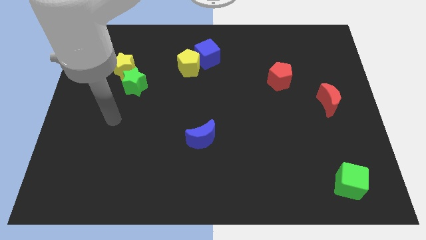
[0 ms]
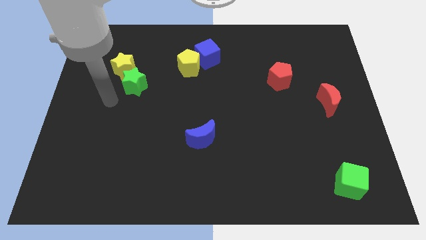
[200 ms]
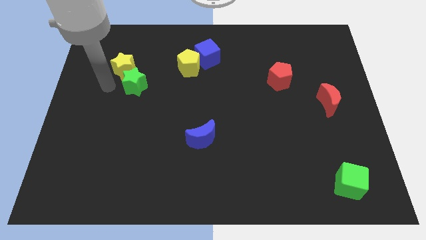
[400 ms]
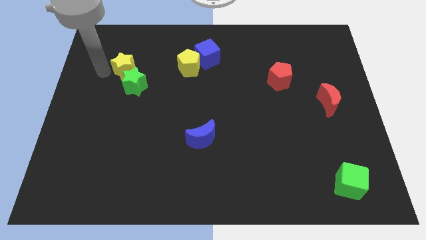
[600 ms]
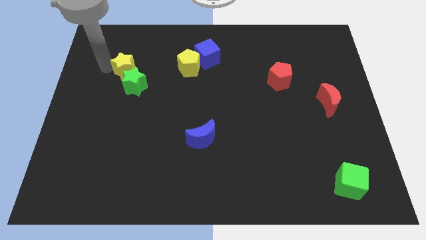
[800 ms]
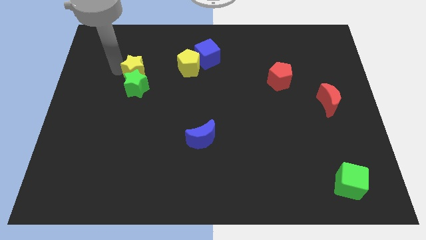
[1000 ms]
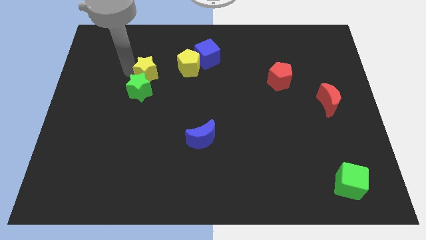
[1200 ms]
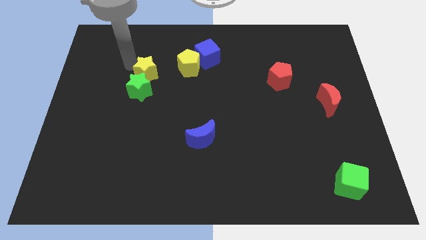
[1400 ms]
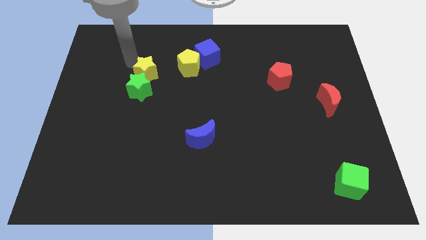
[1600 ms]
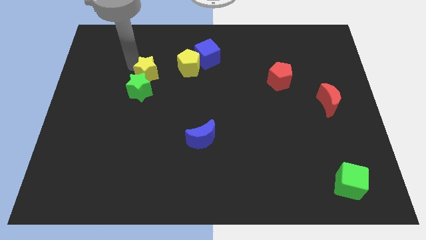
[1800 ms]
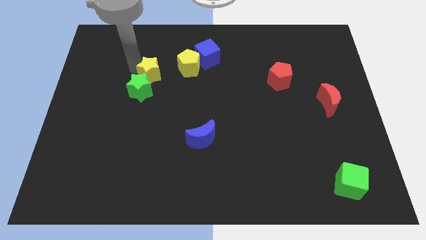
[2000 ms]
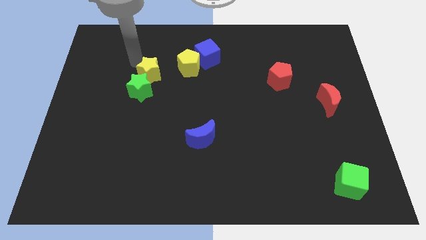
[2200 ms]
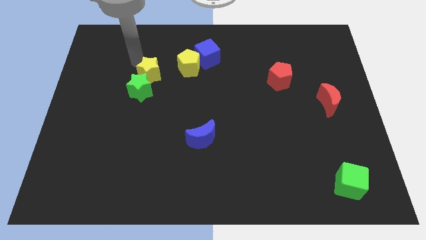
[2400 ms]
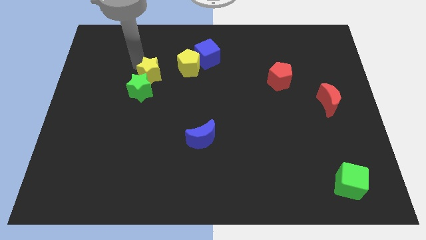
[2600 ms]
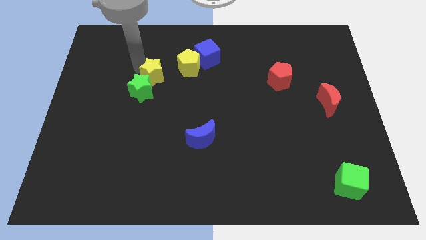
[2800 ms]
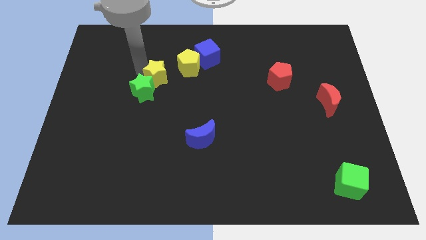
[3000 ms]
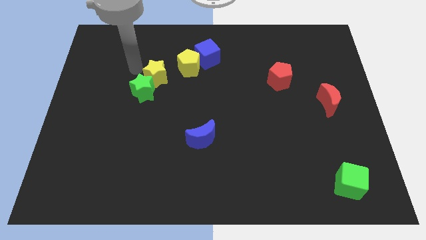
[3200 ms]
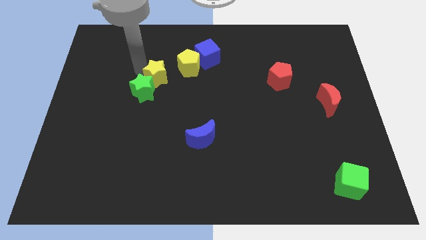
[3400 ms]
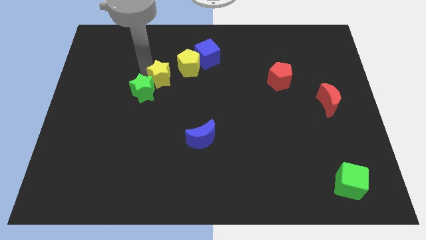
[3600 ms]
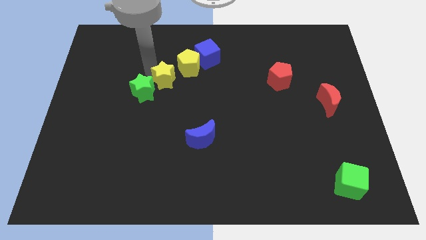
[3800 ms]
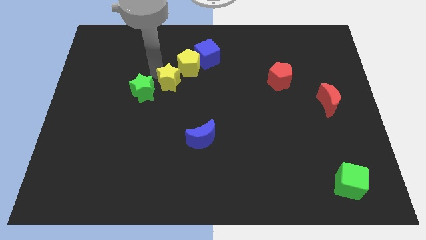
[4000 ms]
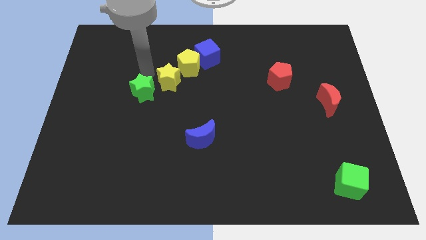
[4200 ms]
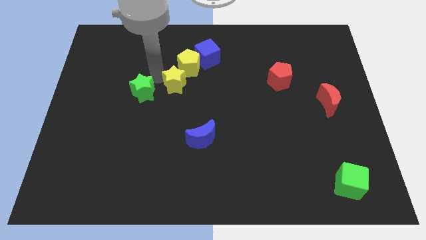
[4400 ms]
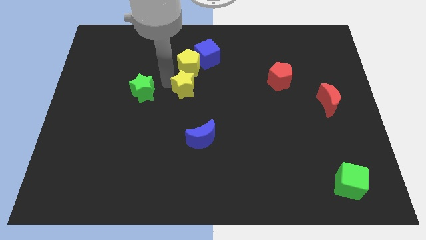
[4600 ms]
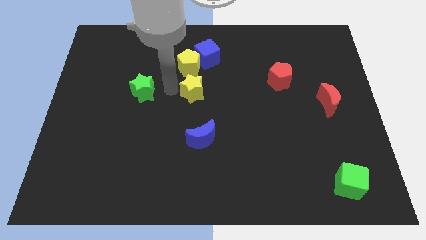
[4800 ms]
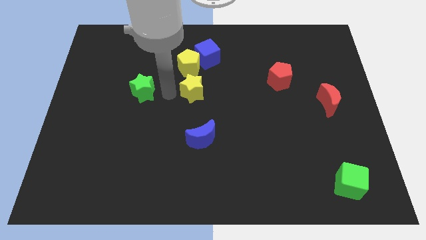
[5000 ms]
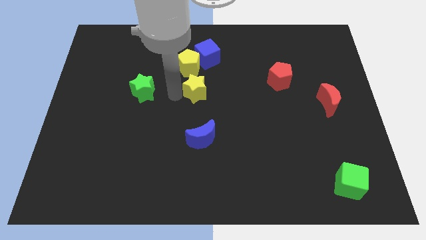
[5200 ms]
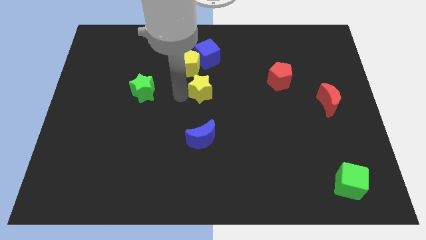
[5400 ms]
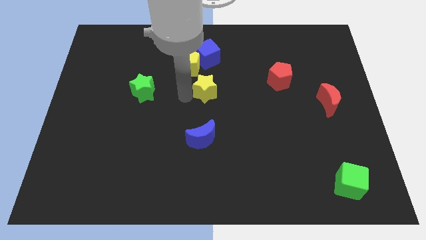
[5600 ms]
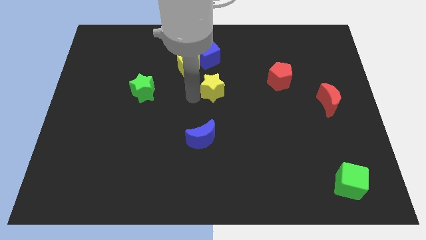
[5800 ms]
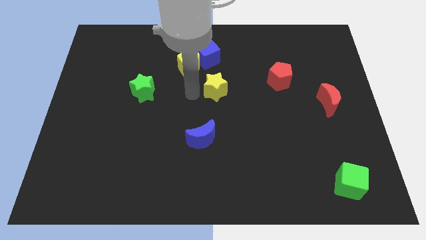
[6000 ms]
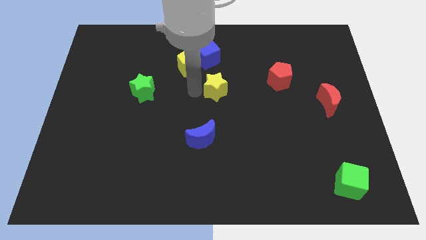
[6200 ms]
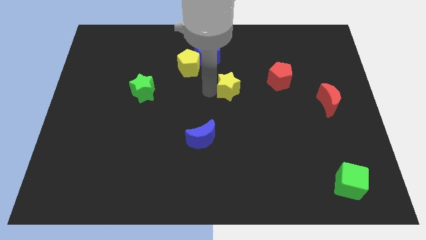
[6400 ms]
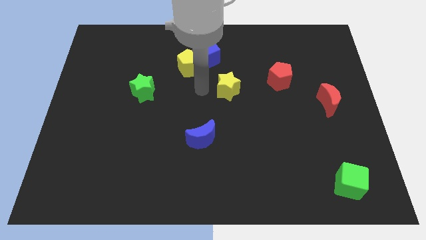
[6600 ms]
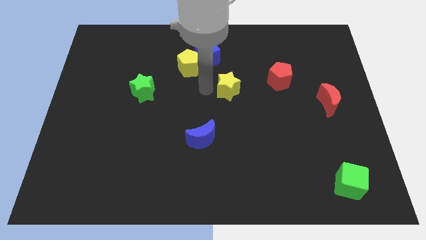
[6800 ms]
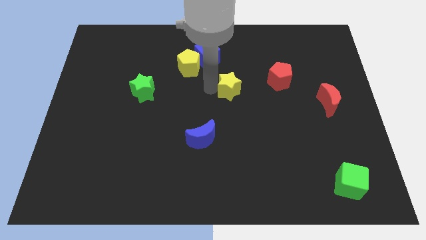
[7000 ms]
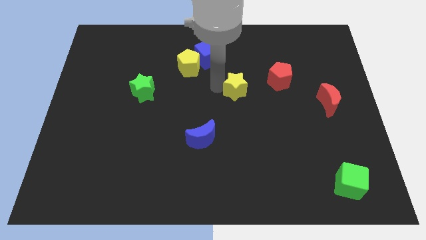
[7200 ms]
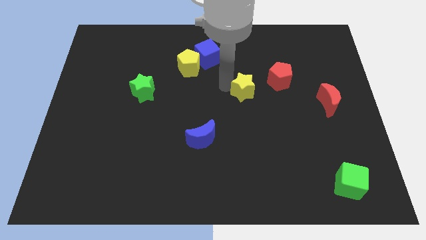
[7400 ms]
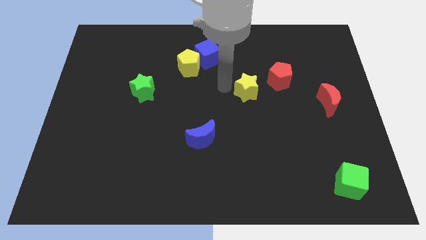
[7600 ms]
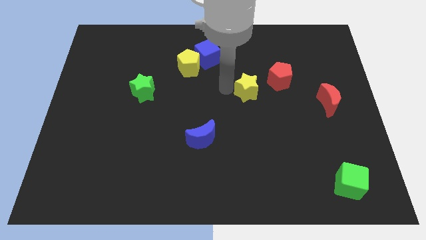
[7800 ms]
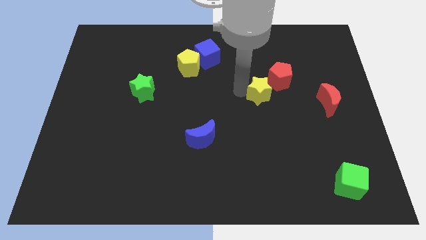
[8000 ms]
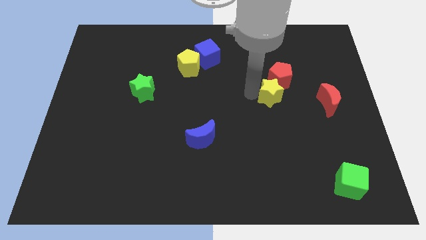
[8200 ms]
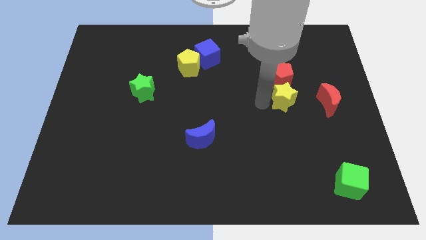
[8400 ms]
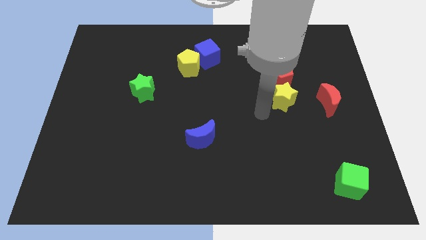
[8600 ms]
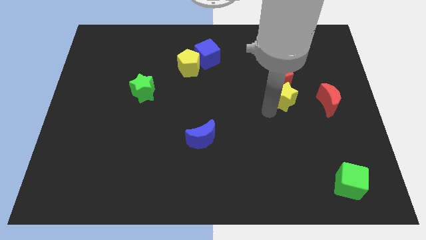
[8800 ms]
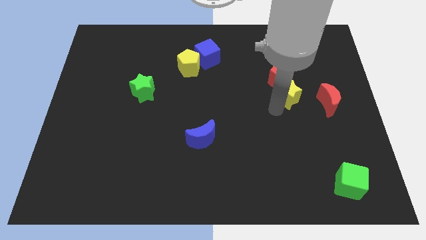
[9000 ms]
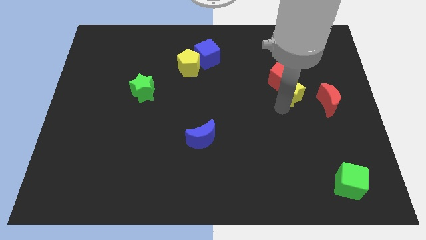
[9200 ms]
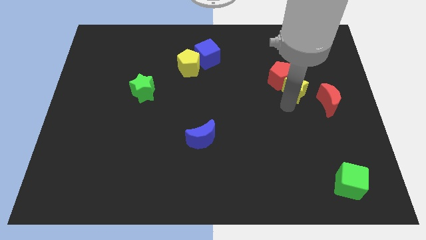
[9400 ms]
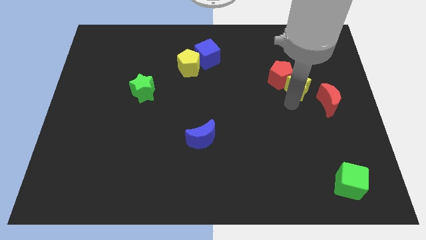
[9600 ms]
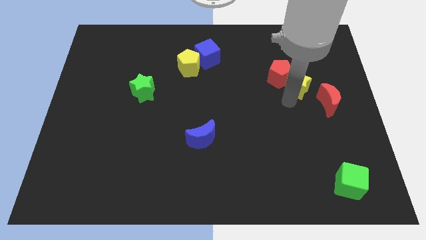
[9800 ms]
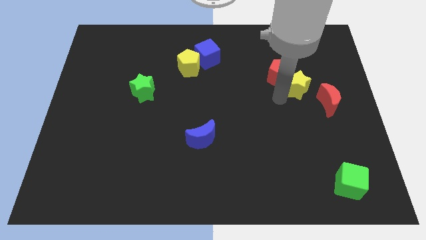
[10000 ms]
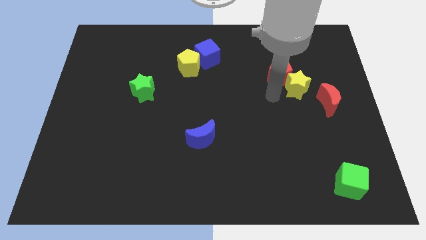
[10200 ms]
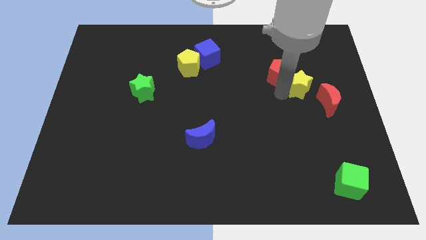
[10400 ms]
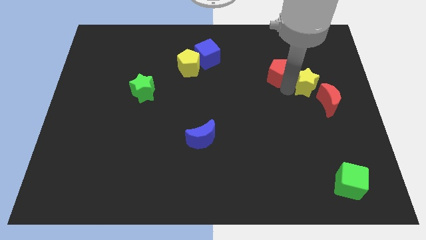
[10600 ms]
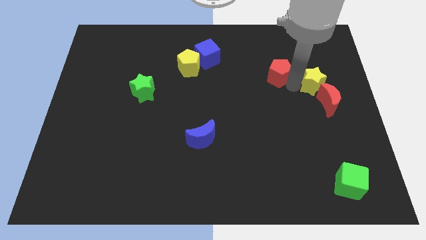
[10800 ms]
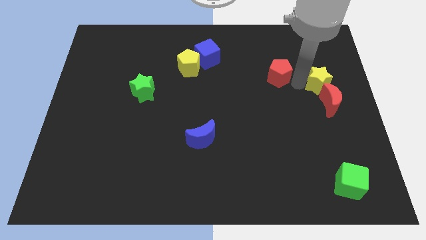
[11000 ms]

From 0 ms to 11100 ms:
put the yellow star to the center right

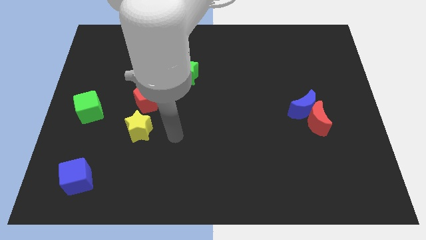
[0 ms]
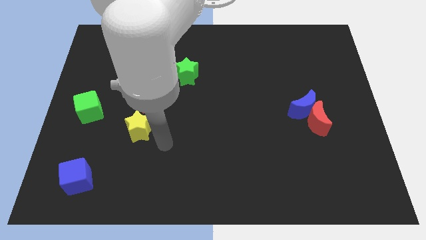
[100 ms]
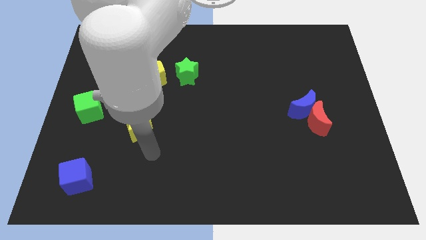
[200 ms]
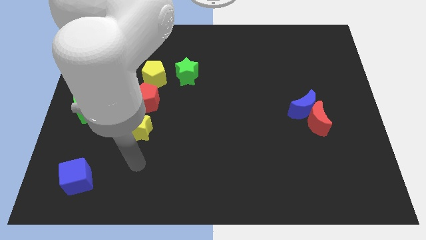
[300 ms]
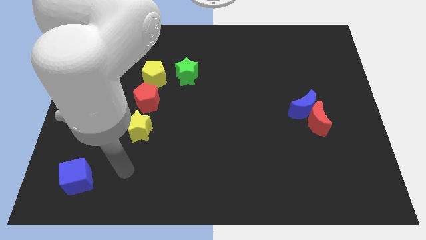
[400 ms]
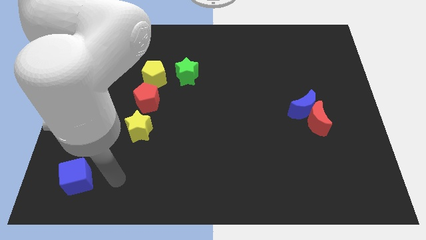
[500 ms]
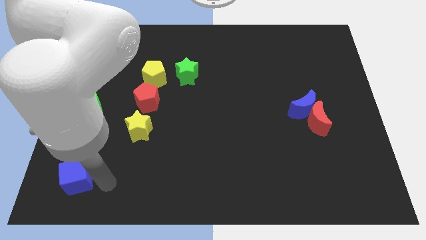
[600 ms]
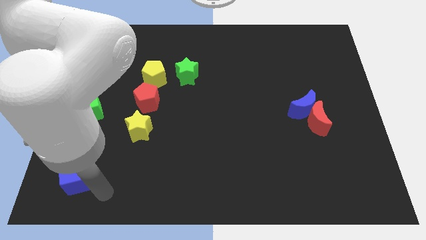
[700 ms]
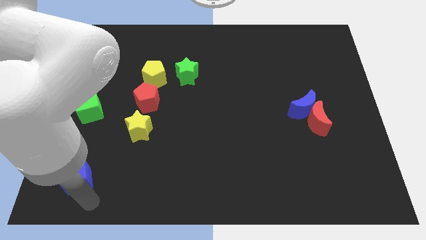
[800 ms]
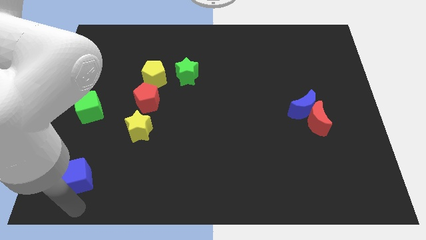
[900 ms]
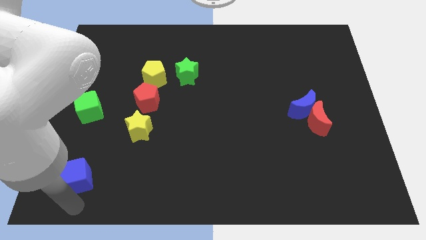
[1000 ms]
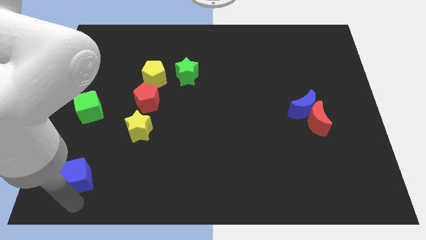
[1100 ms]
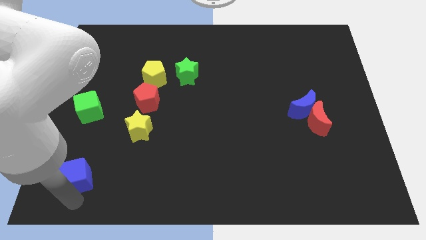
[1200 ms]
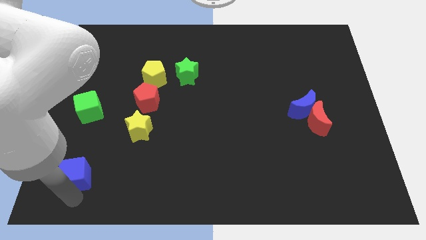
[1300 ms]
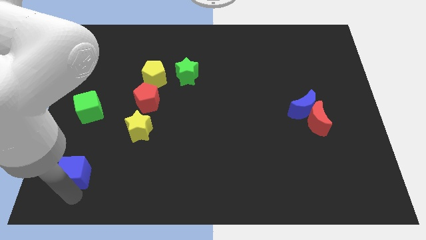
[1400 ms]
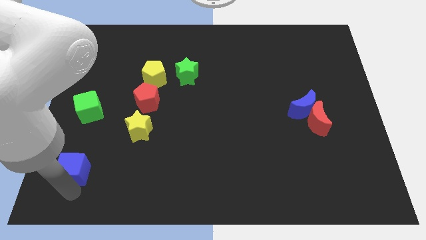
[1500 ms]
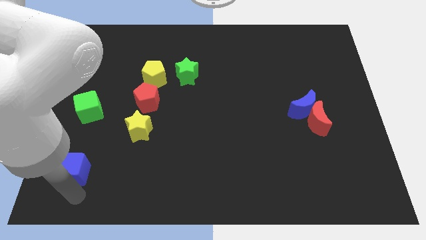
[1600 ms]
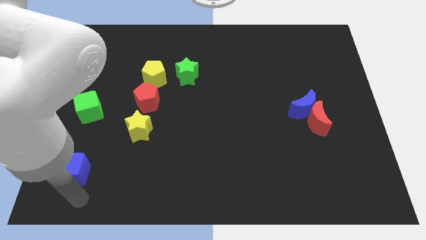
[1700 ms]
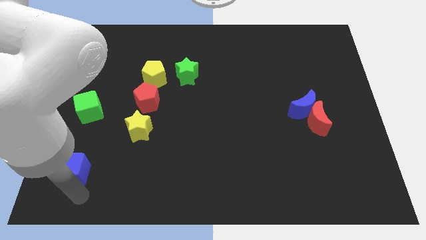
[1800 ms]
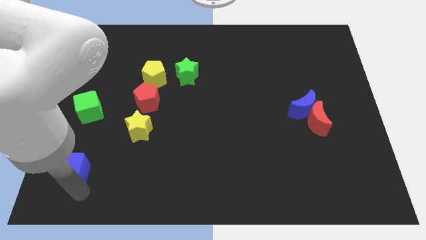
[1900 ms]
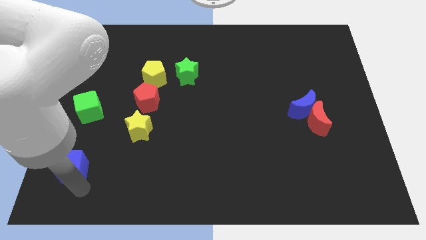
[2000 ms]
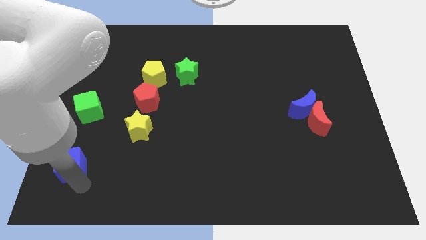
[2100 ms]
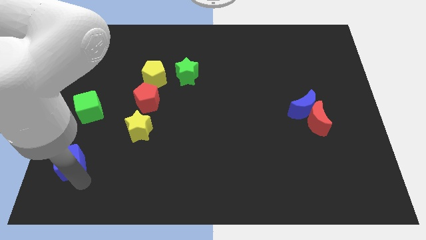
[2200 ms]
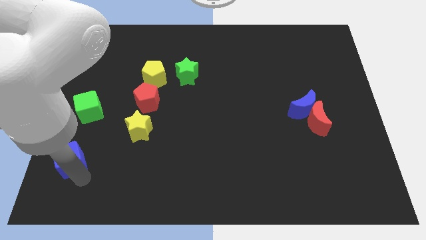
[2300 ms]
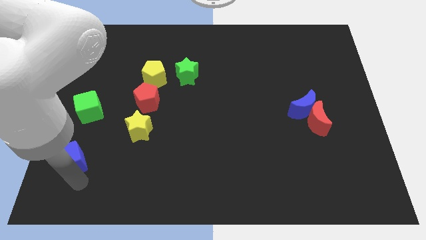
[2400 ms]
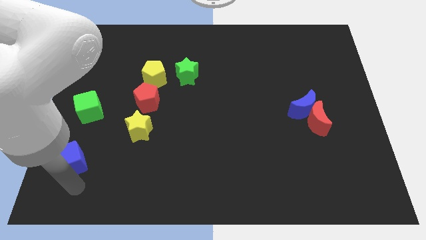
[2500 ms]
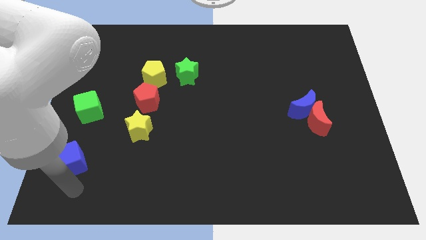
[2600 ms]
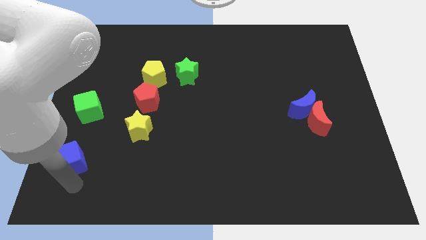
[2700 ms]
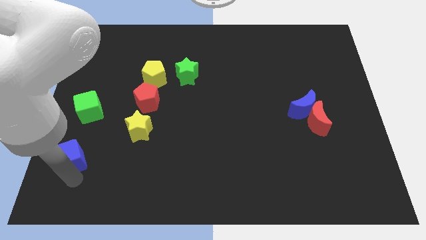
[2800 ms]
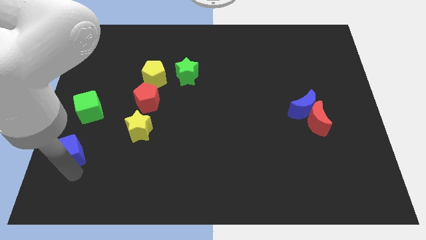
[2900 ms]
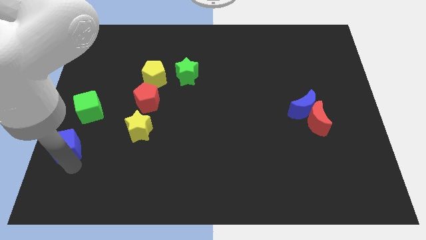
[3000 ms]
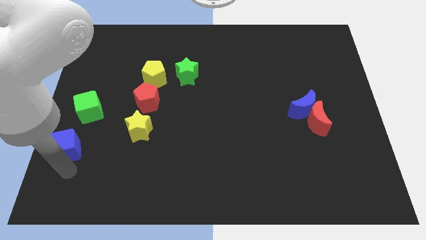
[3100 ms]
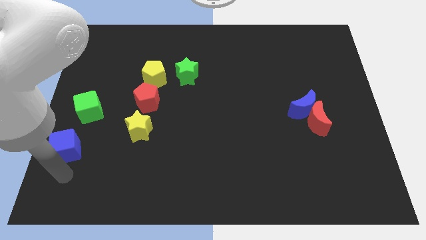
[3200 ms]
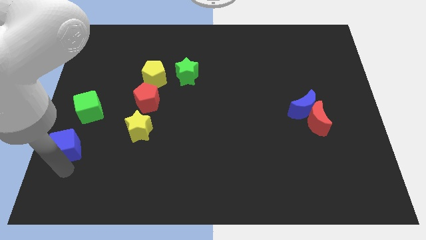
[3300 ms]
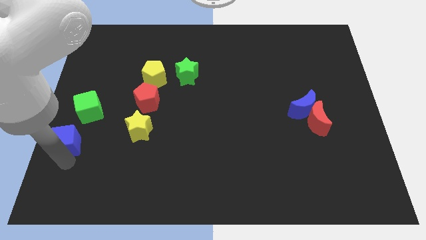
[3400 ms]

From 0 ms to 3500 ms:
slide the blue cube to the left side of the board
